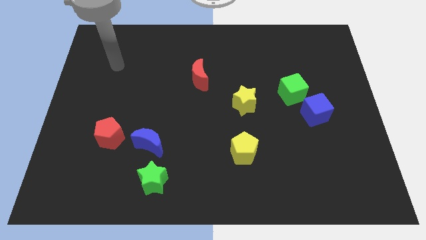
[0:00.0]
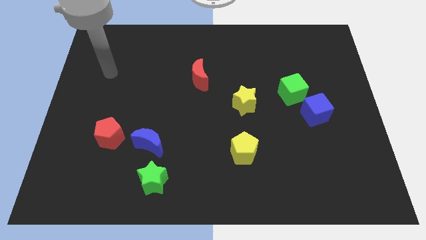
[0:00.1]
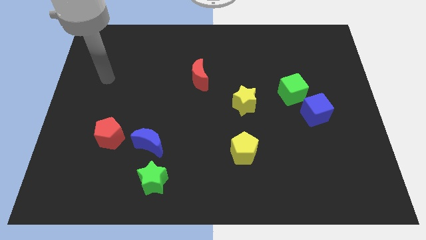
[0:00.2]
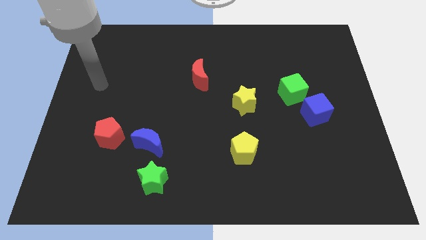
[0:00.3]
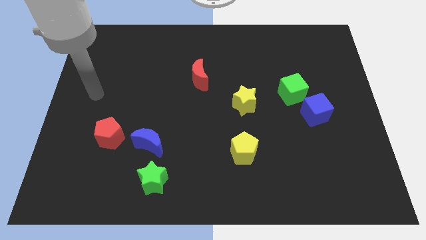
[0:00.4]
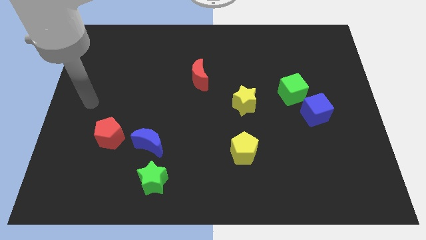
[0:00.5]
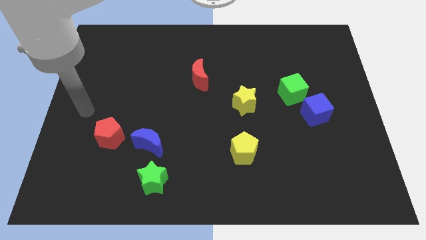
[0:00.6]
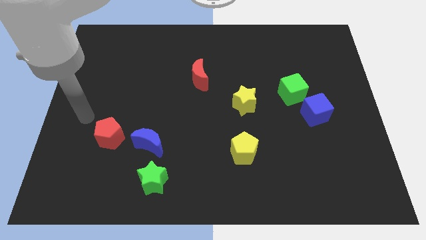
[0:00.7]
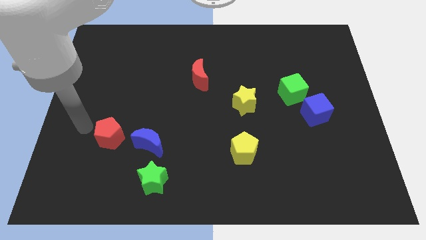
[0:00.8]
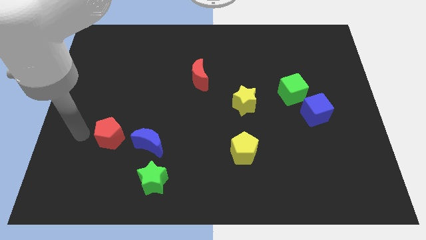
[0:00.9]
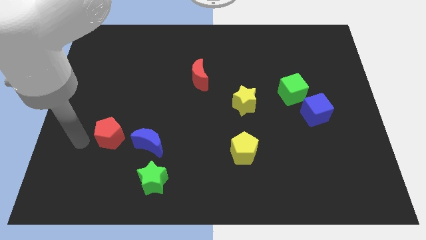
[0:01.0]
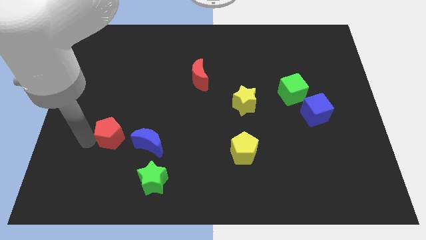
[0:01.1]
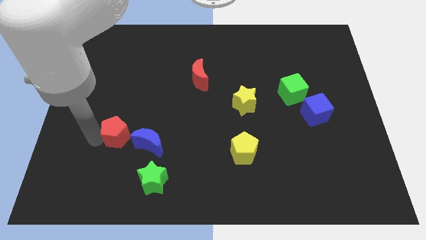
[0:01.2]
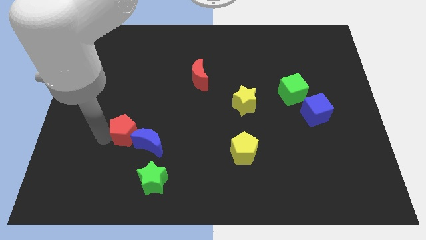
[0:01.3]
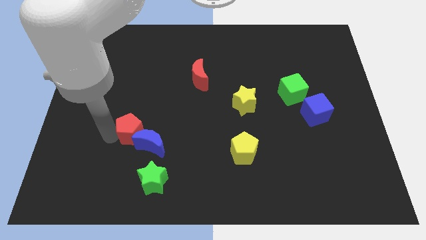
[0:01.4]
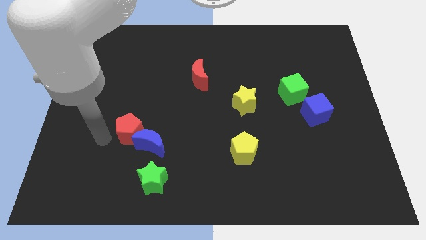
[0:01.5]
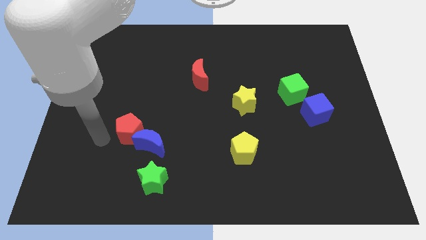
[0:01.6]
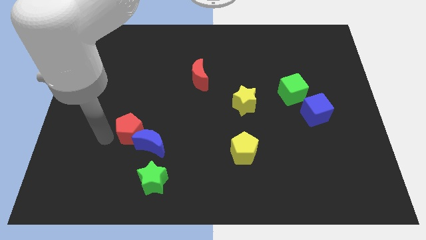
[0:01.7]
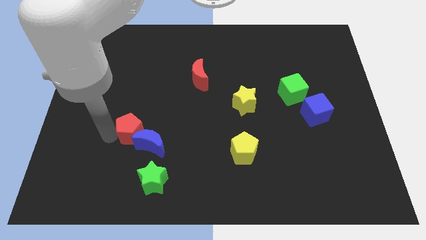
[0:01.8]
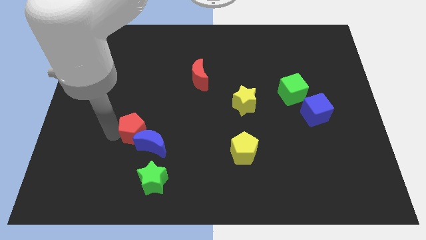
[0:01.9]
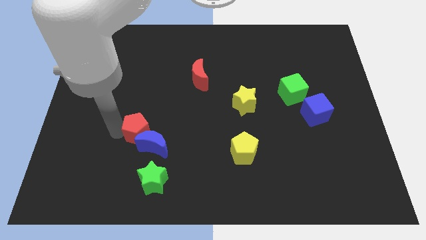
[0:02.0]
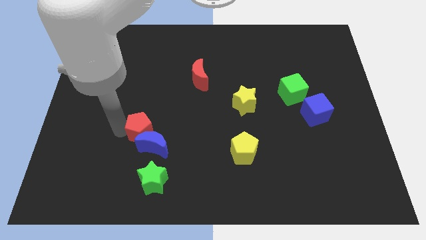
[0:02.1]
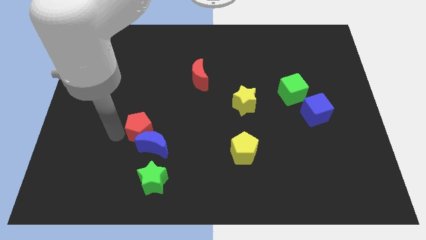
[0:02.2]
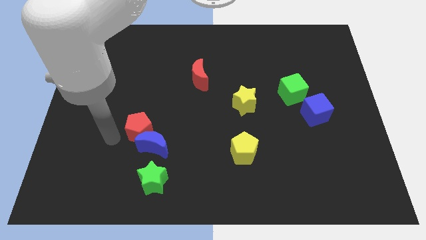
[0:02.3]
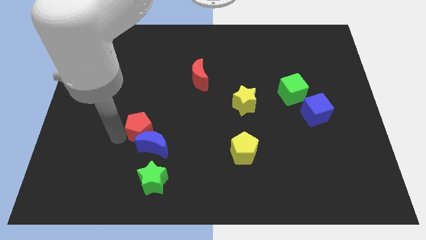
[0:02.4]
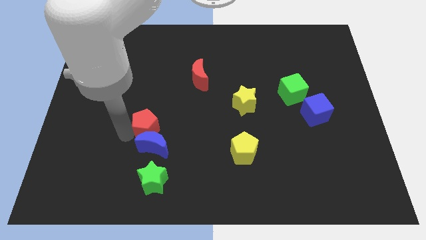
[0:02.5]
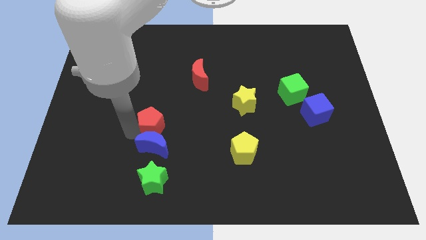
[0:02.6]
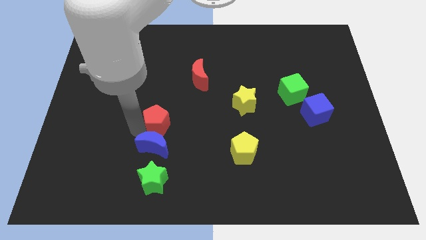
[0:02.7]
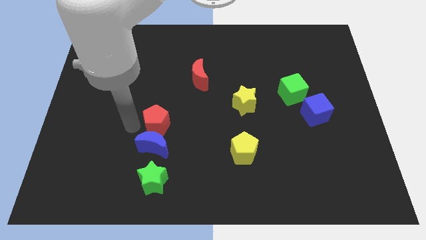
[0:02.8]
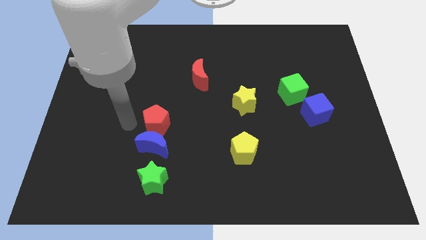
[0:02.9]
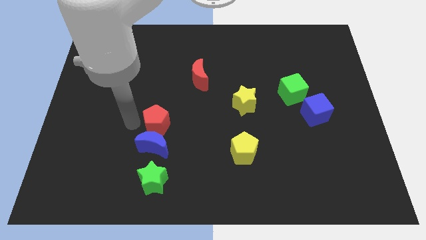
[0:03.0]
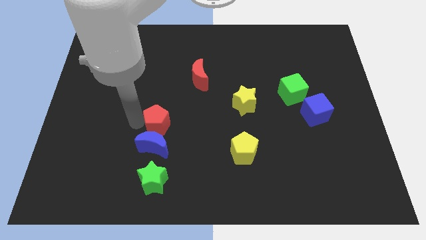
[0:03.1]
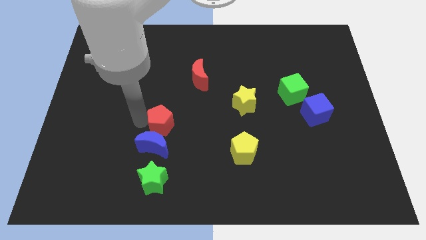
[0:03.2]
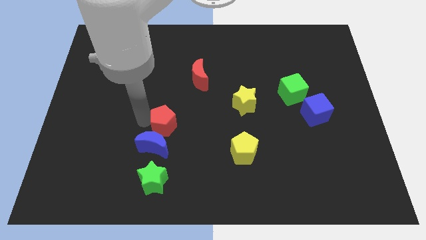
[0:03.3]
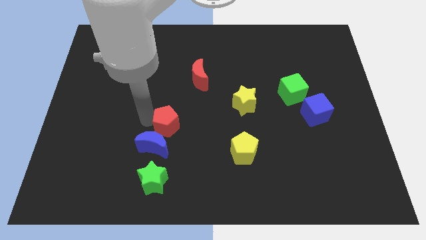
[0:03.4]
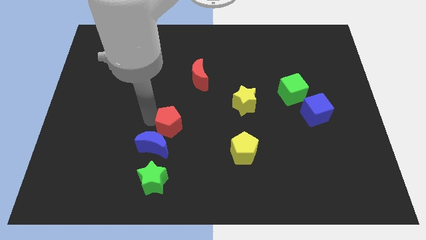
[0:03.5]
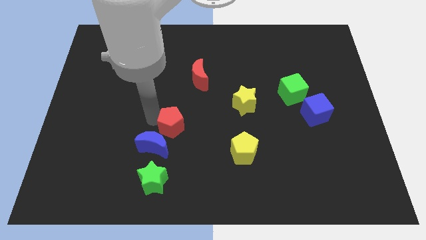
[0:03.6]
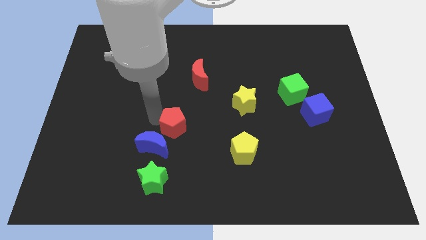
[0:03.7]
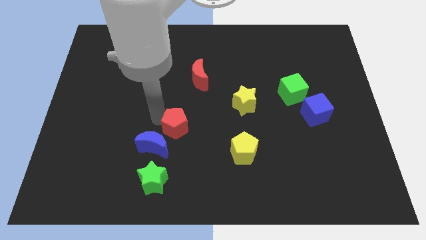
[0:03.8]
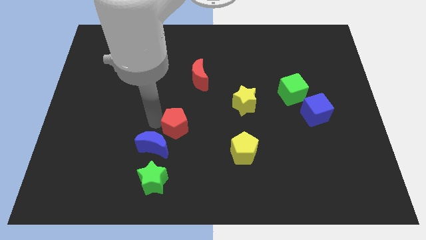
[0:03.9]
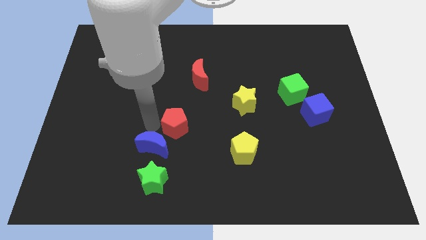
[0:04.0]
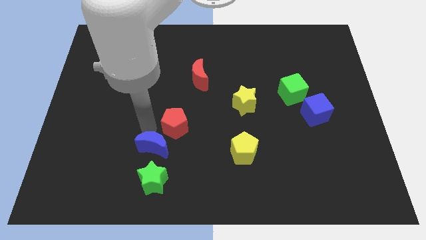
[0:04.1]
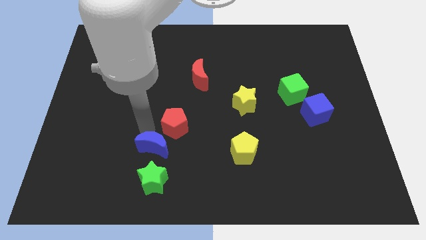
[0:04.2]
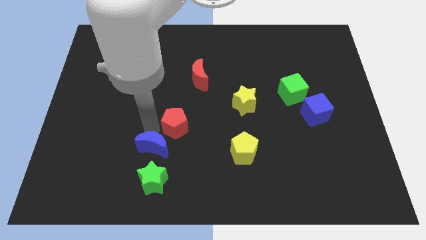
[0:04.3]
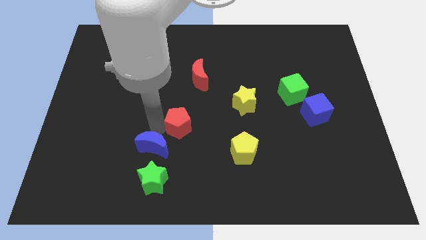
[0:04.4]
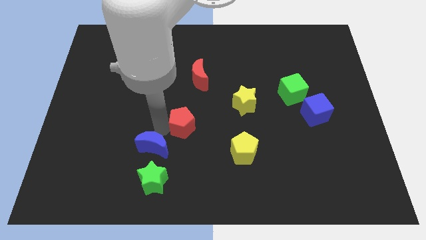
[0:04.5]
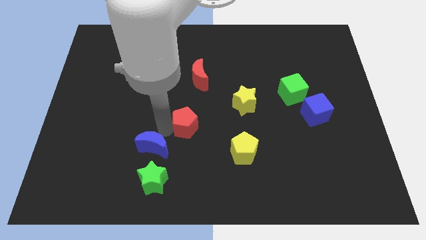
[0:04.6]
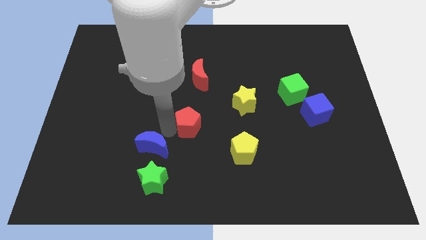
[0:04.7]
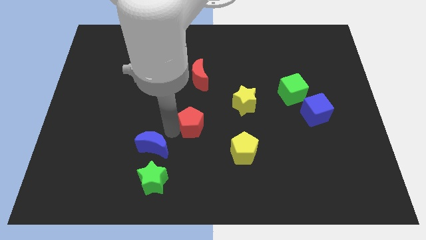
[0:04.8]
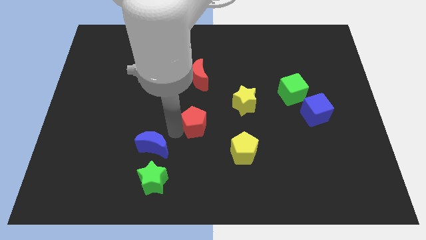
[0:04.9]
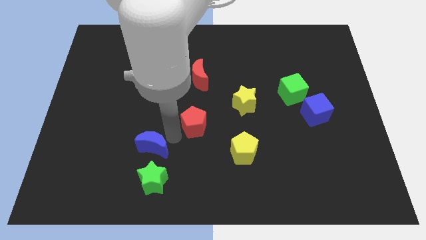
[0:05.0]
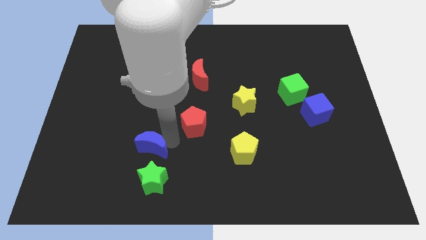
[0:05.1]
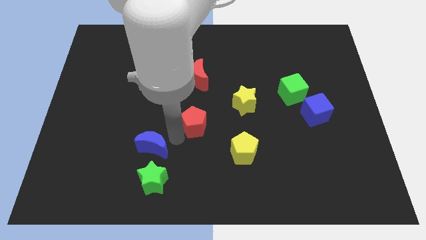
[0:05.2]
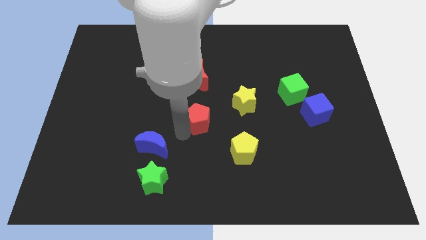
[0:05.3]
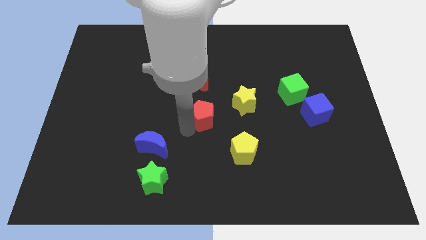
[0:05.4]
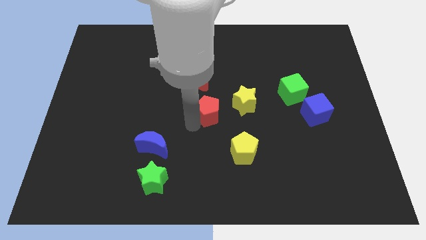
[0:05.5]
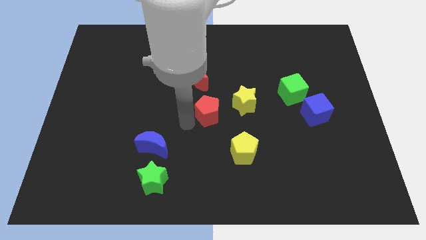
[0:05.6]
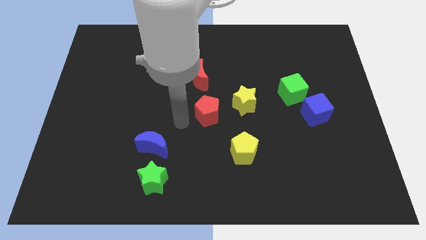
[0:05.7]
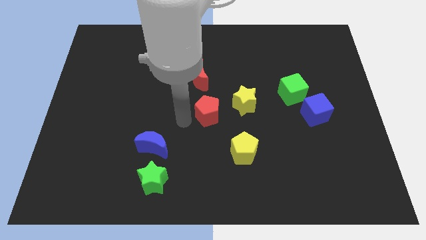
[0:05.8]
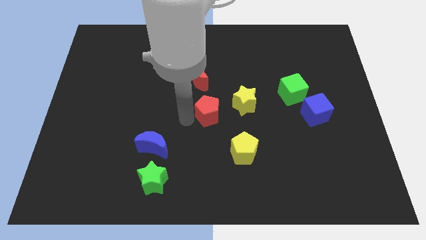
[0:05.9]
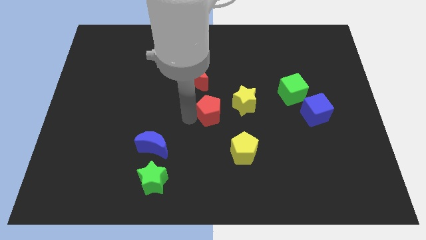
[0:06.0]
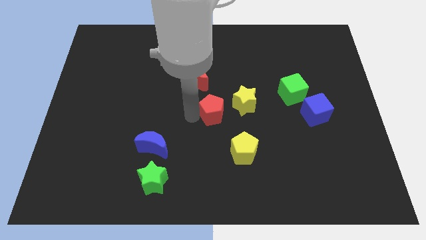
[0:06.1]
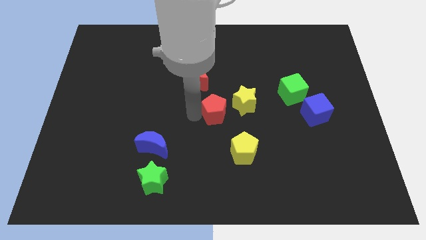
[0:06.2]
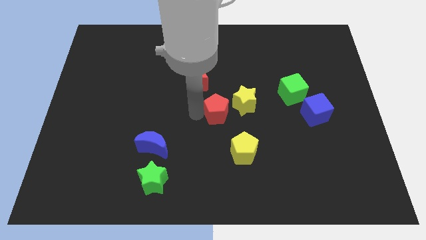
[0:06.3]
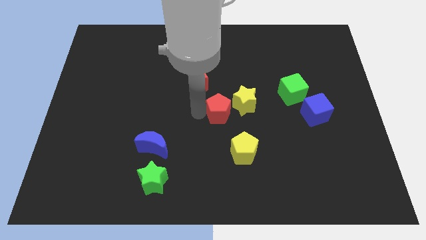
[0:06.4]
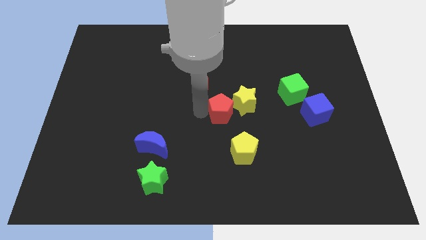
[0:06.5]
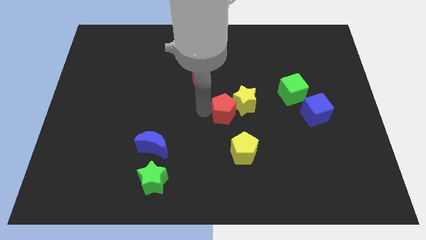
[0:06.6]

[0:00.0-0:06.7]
move the red pentagon next to the yellow star

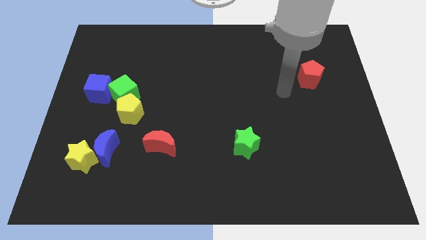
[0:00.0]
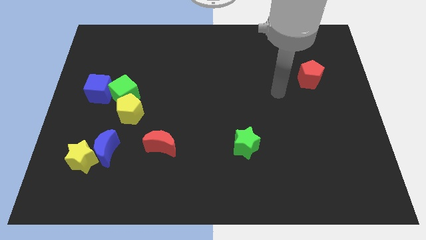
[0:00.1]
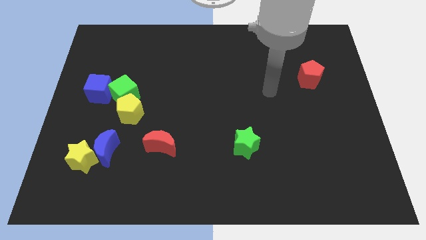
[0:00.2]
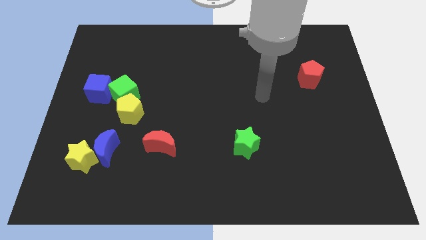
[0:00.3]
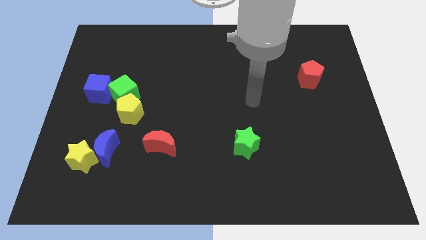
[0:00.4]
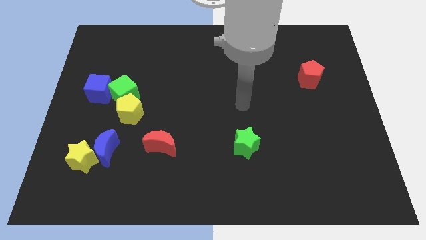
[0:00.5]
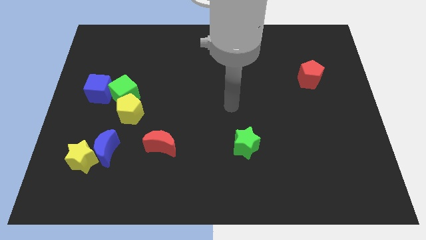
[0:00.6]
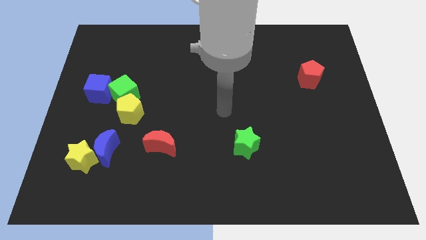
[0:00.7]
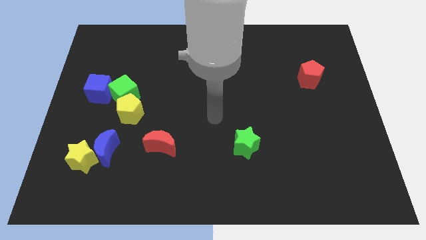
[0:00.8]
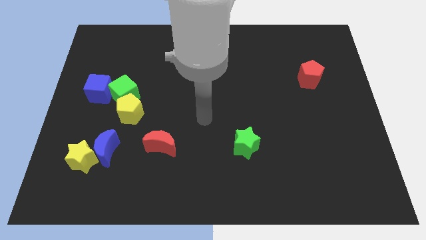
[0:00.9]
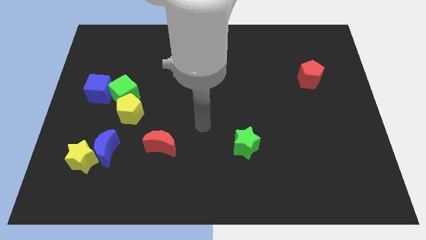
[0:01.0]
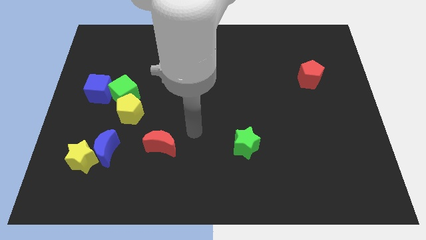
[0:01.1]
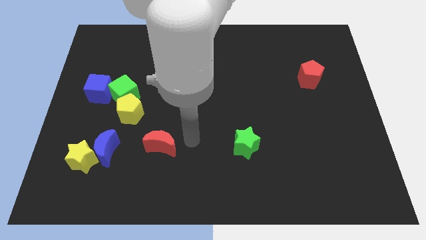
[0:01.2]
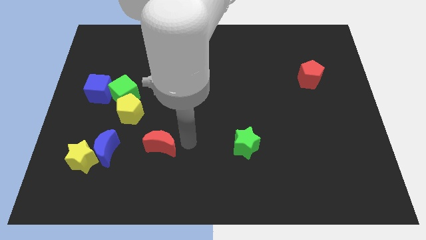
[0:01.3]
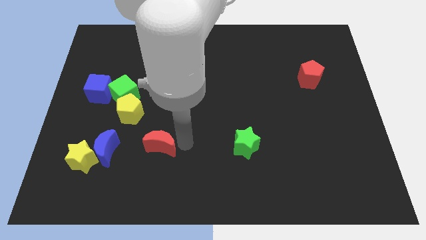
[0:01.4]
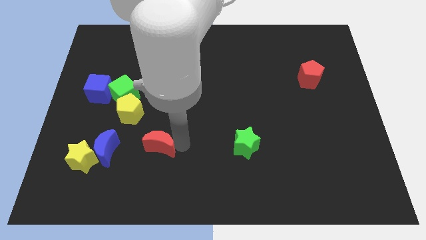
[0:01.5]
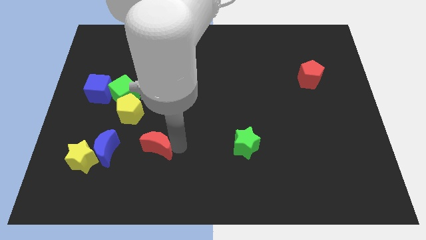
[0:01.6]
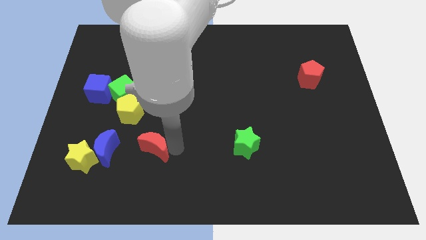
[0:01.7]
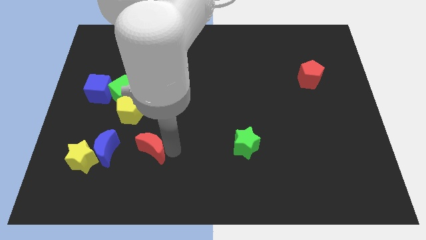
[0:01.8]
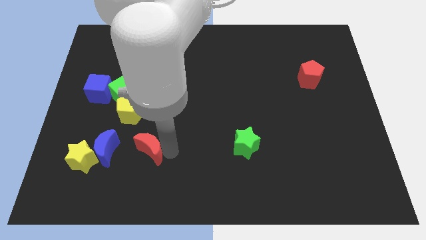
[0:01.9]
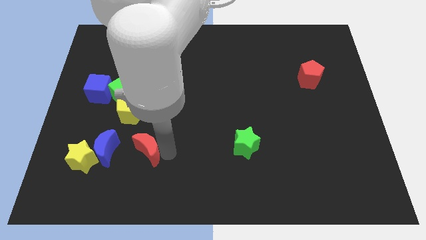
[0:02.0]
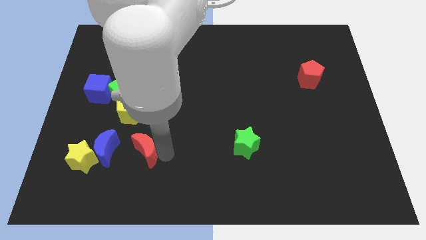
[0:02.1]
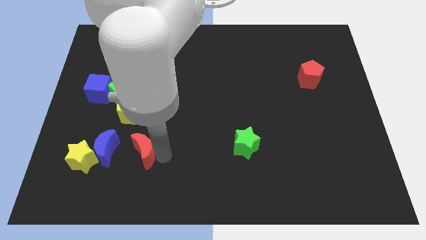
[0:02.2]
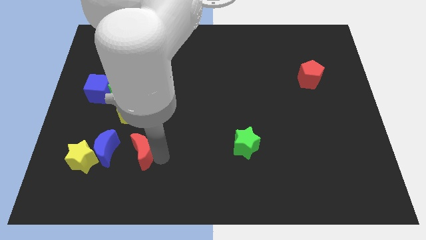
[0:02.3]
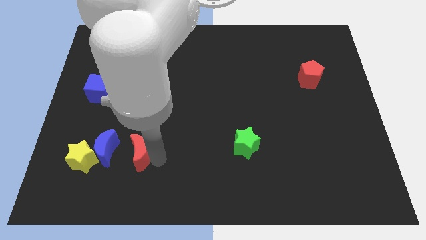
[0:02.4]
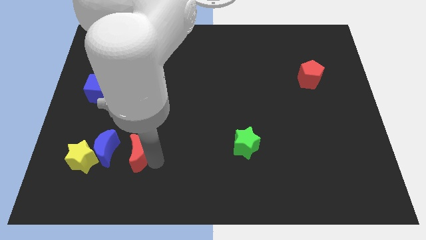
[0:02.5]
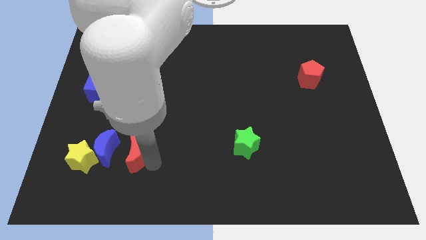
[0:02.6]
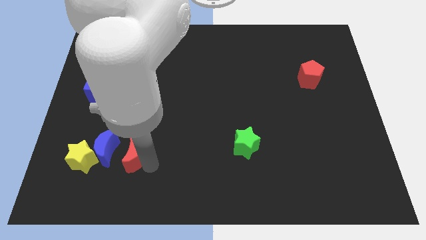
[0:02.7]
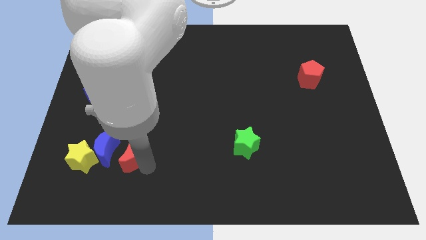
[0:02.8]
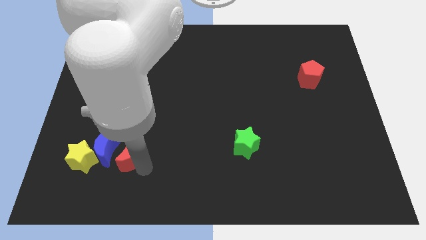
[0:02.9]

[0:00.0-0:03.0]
put the red moon to the blue moon
